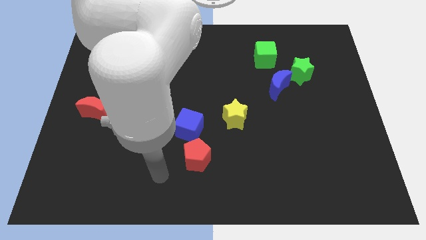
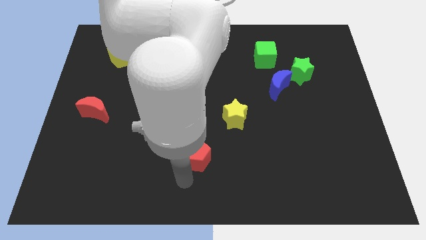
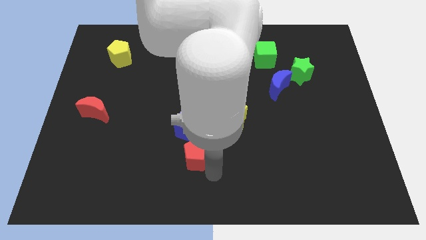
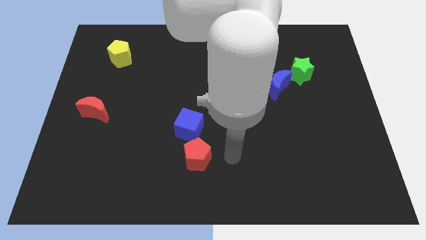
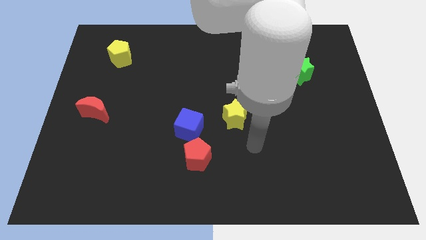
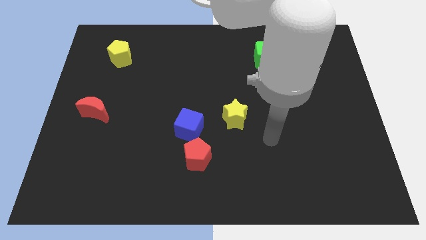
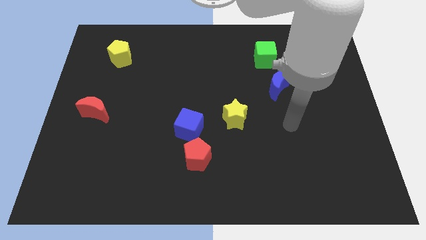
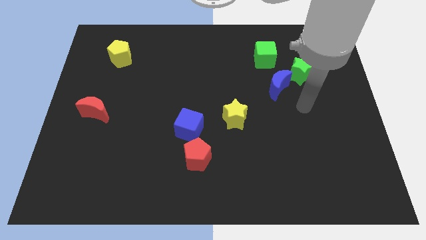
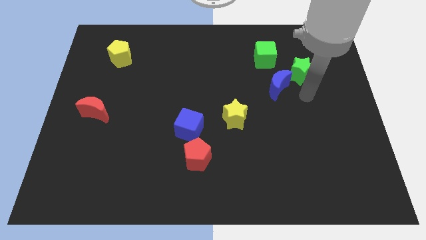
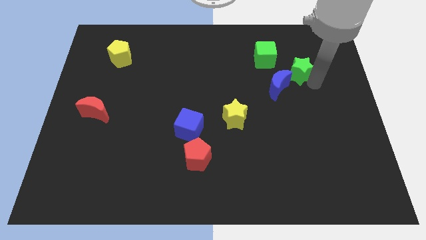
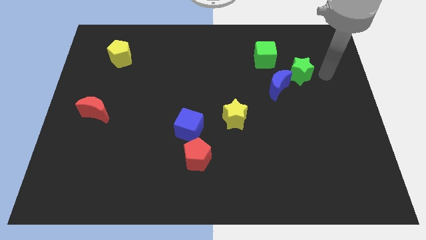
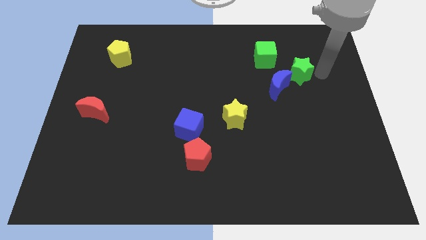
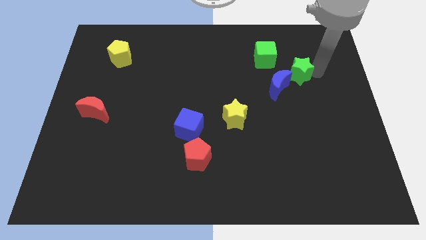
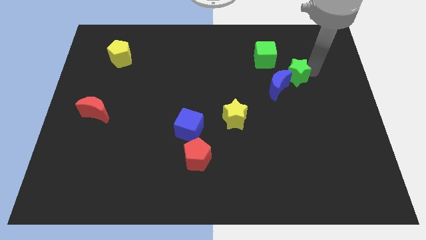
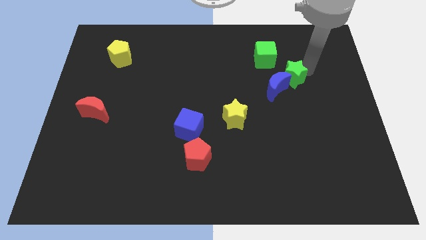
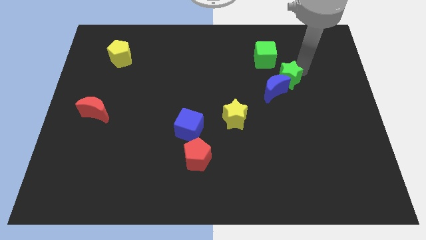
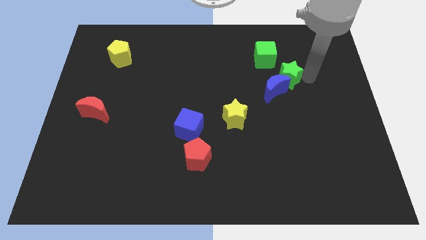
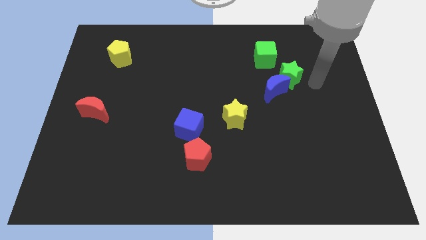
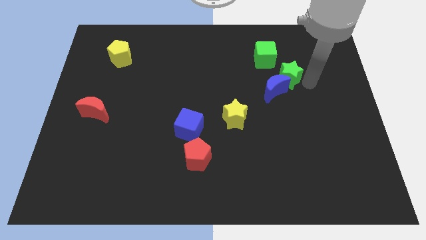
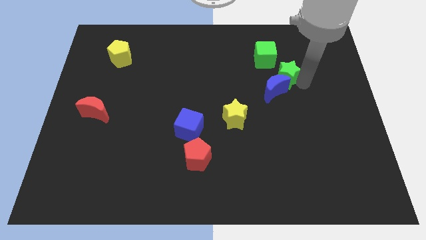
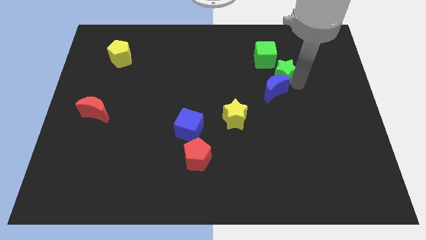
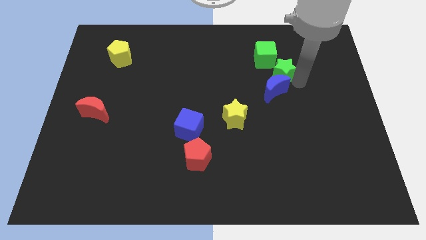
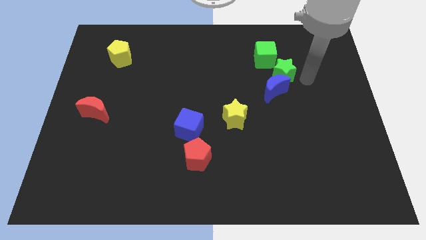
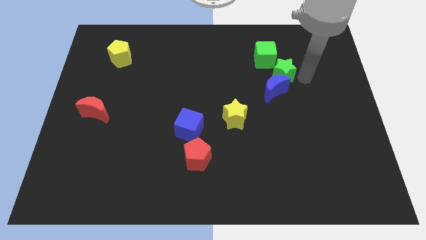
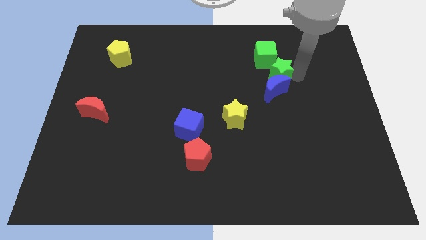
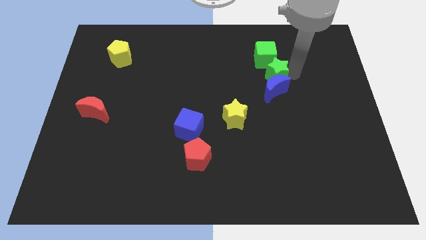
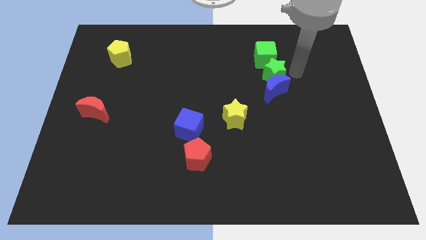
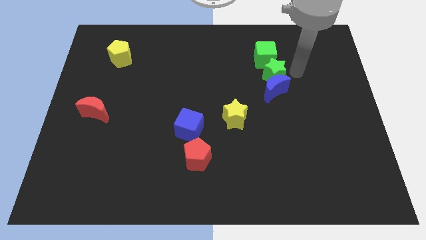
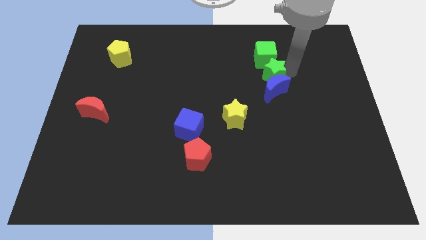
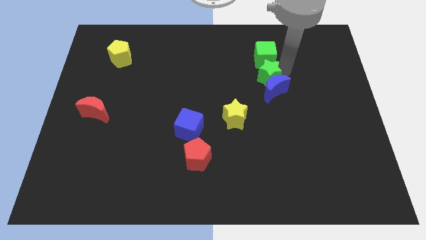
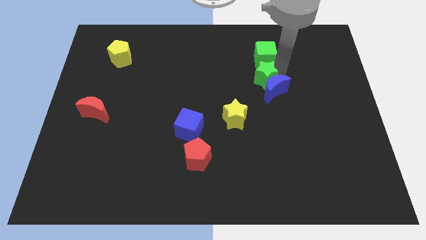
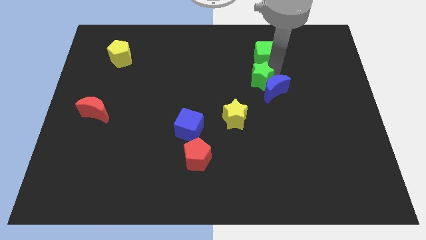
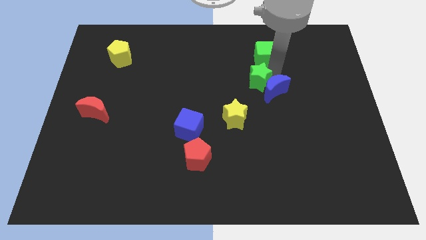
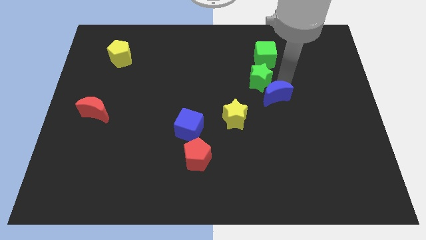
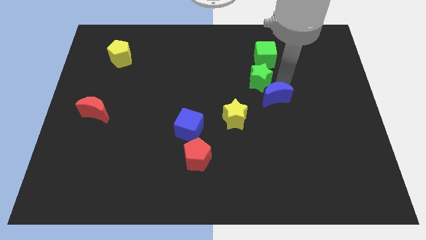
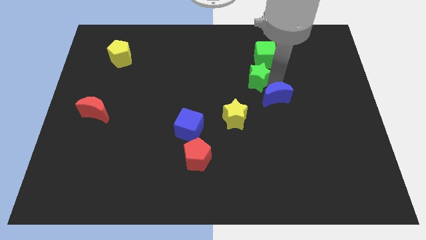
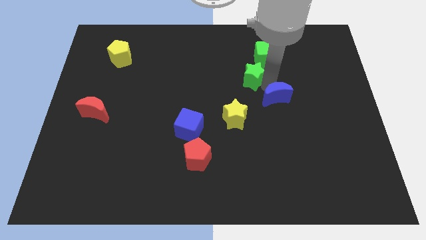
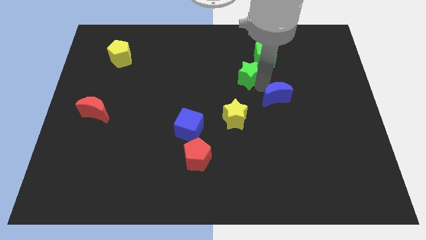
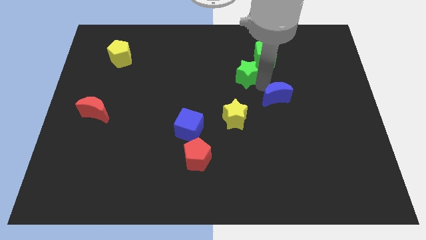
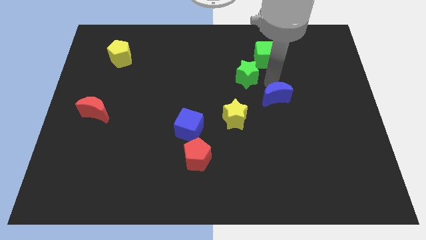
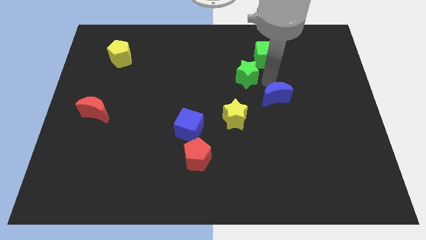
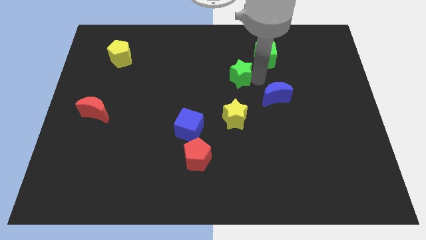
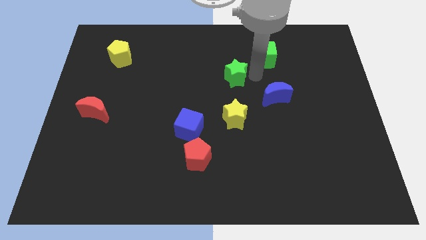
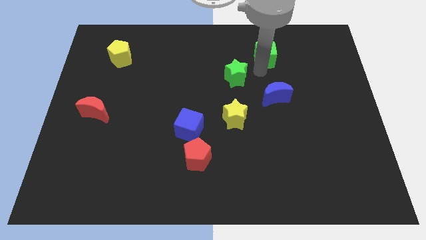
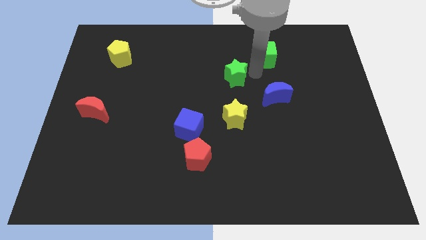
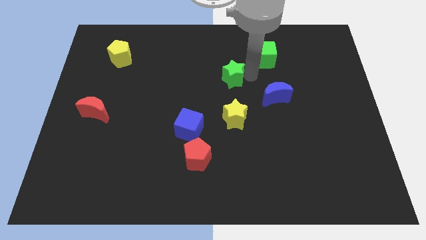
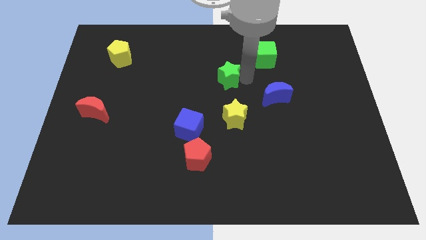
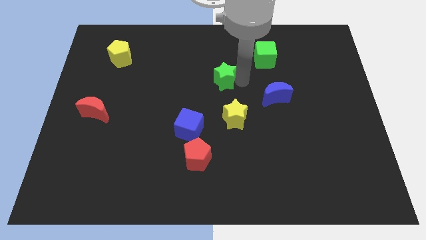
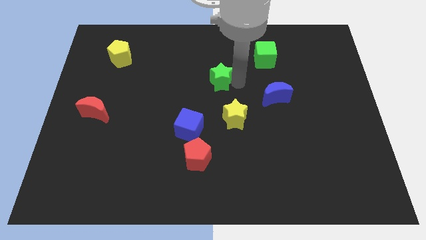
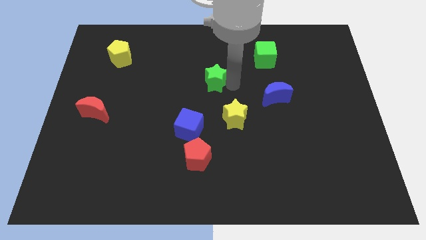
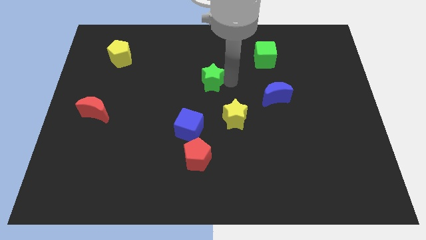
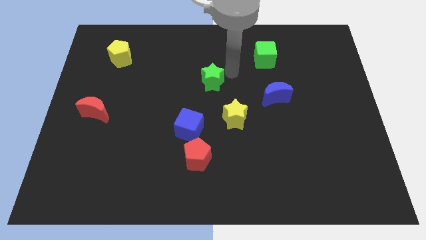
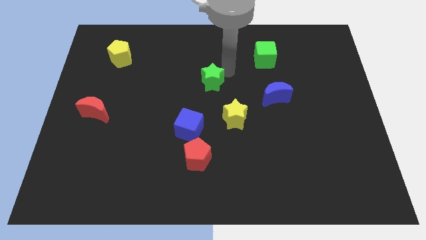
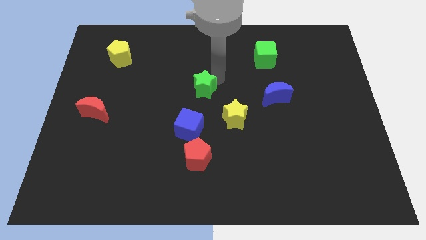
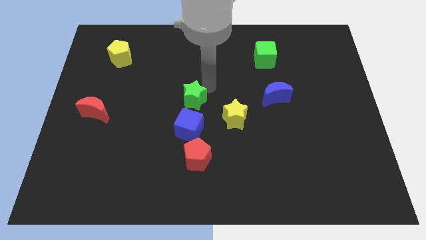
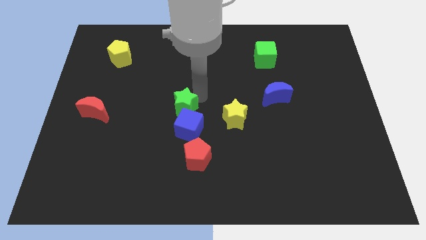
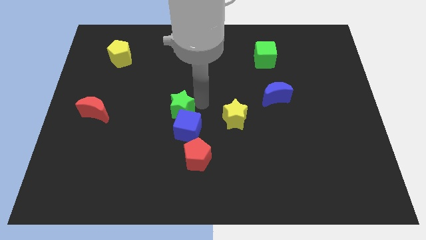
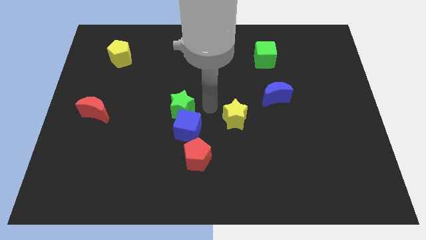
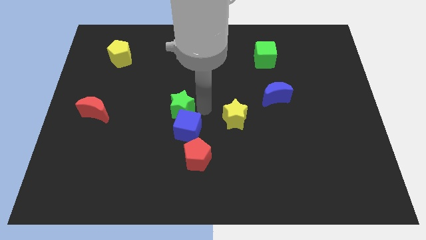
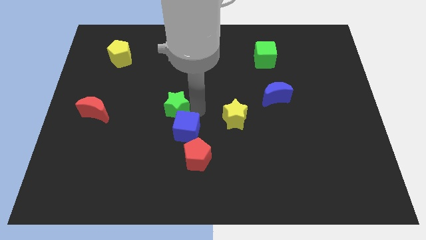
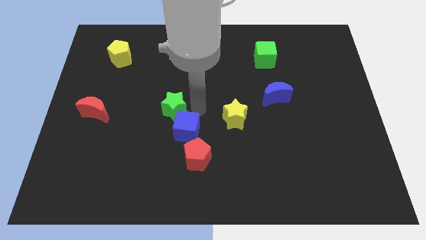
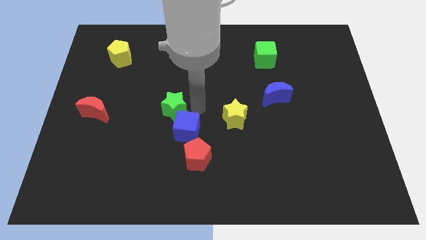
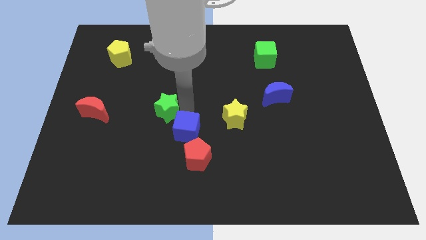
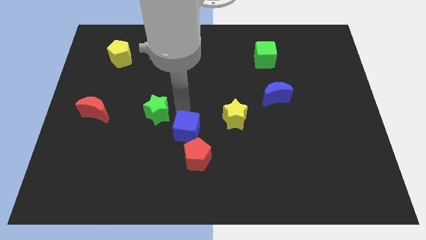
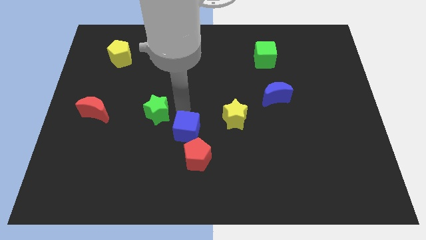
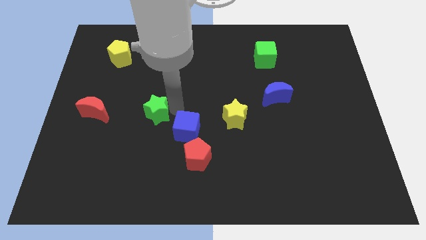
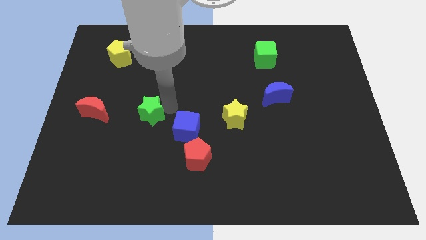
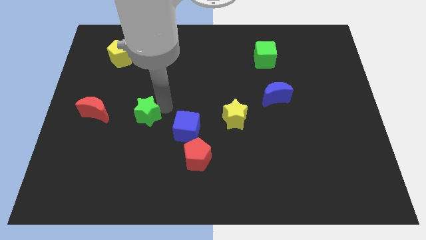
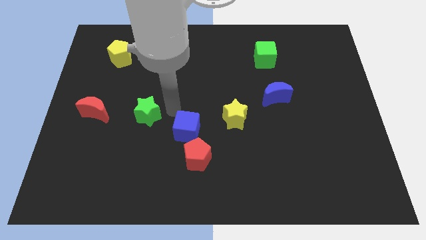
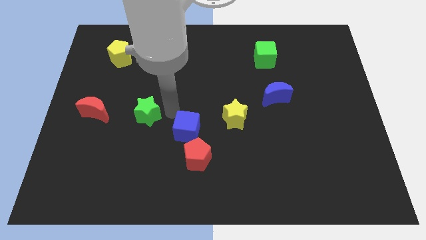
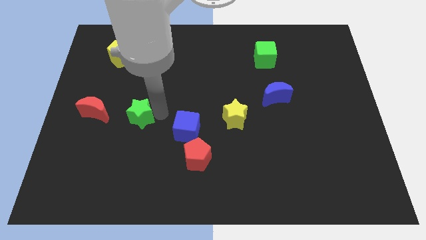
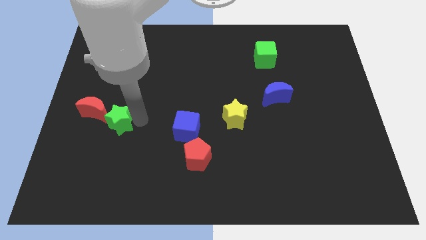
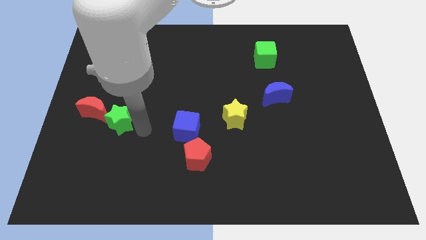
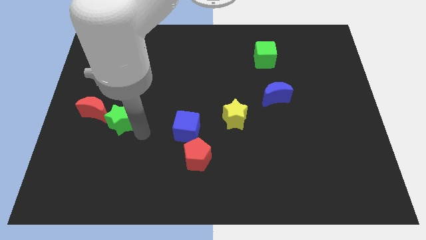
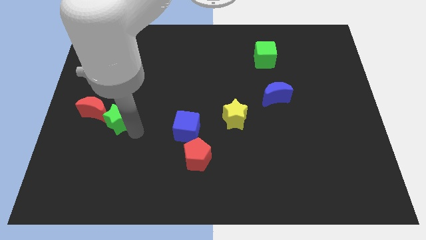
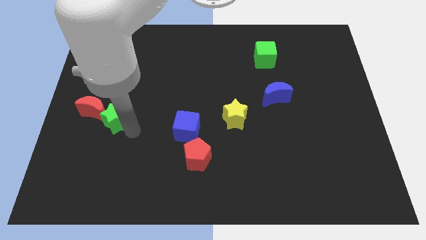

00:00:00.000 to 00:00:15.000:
move the green star to the red moon

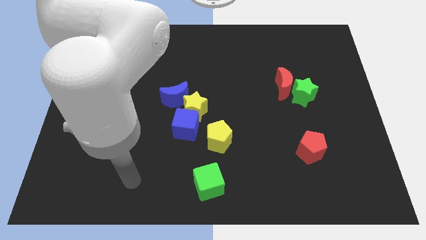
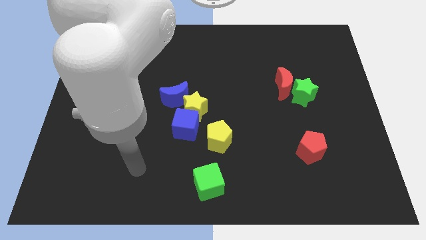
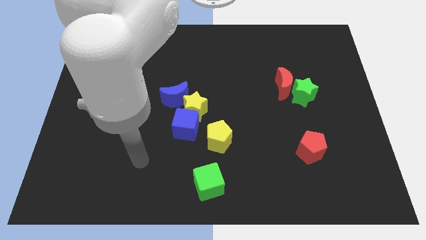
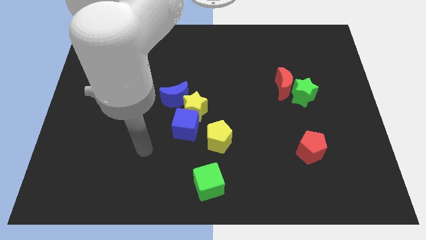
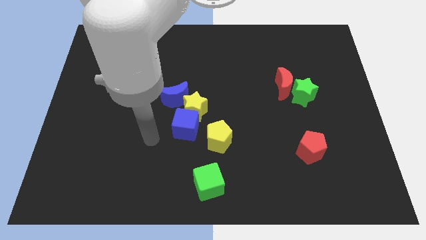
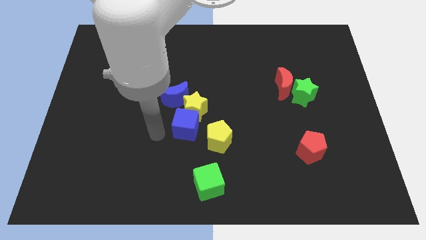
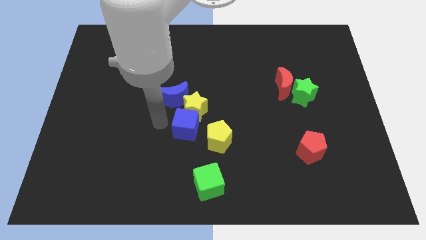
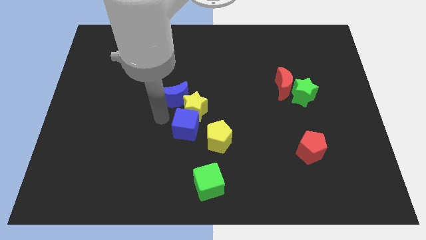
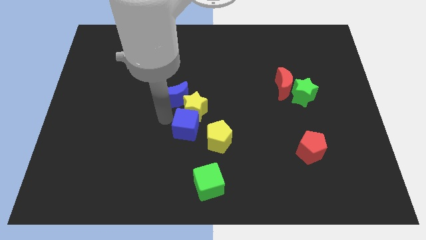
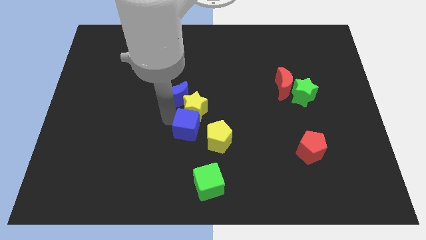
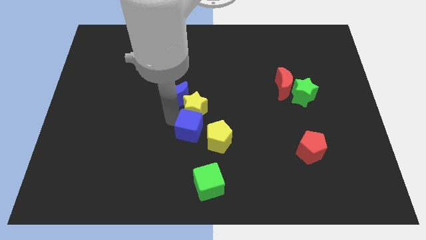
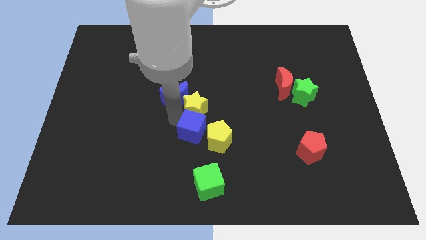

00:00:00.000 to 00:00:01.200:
put the blue cube close to the yellow pentagon
